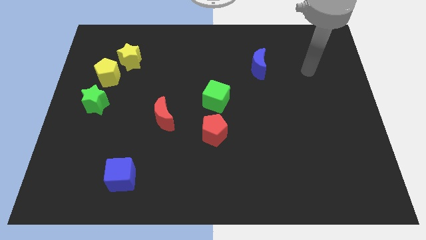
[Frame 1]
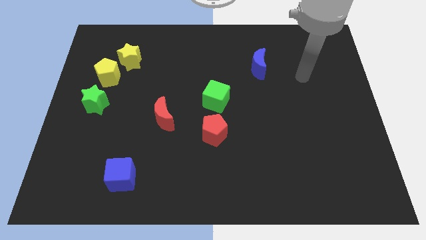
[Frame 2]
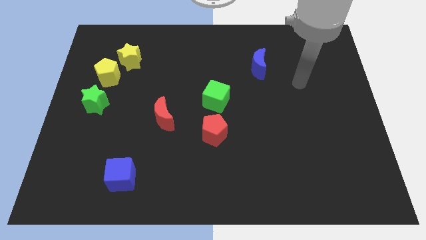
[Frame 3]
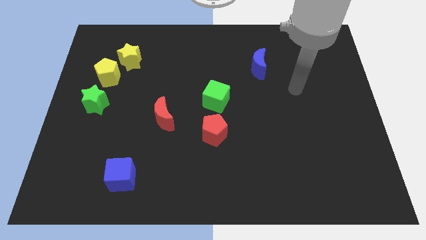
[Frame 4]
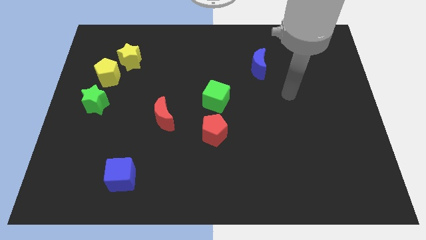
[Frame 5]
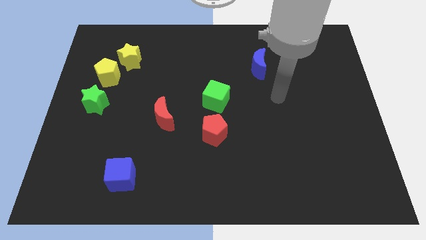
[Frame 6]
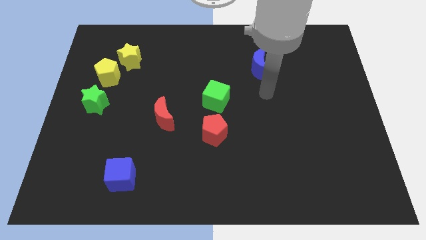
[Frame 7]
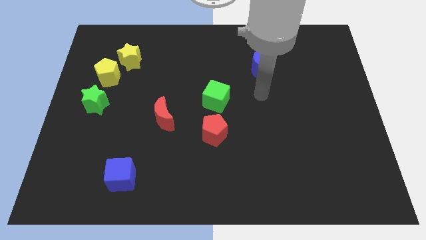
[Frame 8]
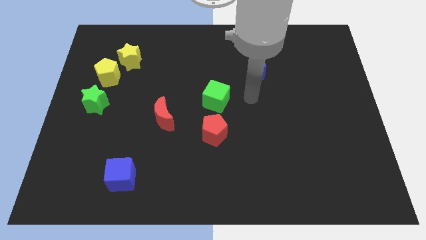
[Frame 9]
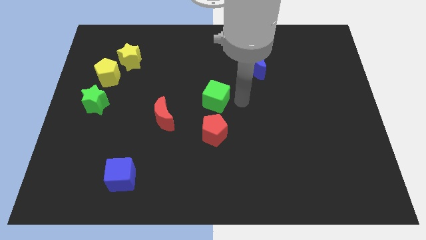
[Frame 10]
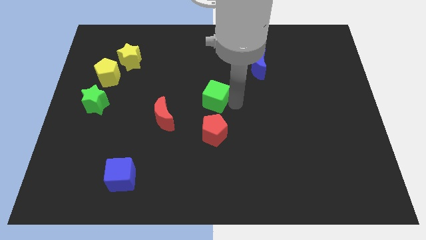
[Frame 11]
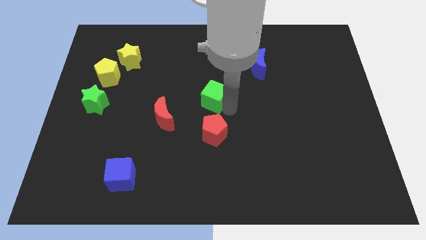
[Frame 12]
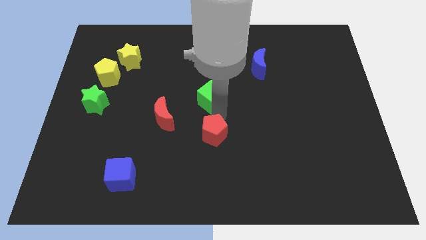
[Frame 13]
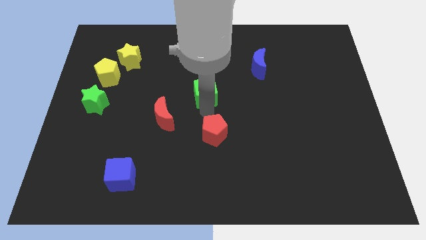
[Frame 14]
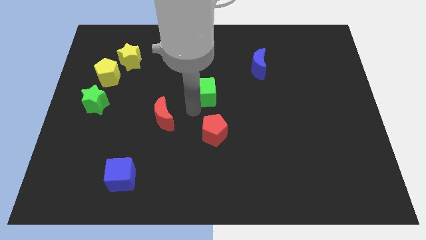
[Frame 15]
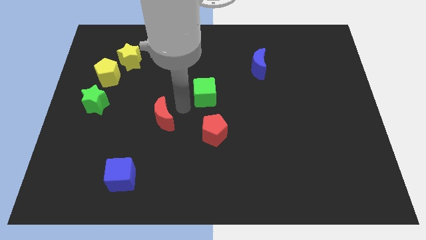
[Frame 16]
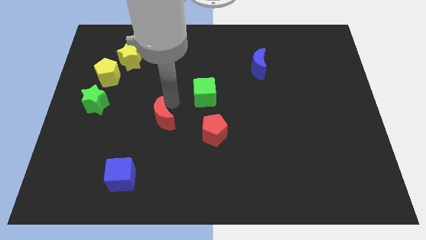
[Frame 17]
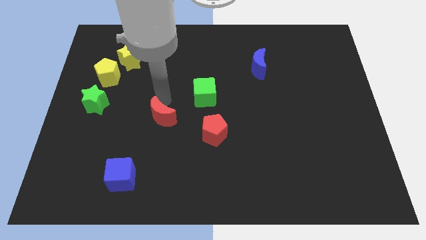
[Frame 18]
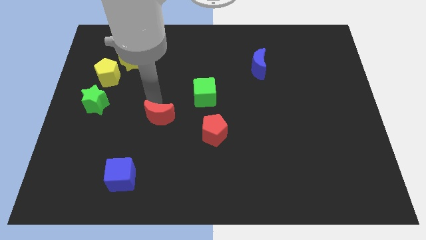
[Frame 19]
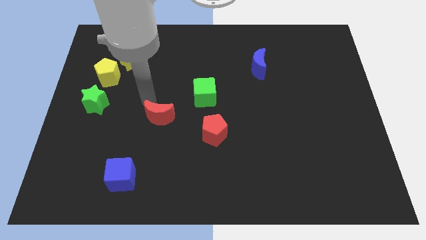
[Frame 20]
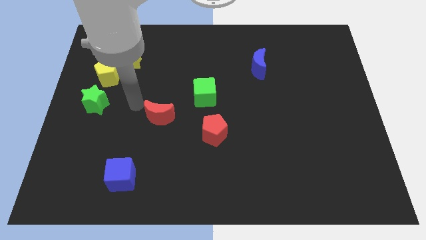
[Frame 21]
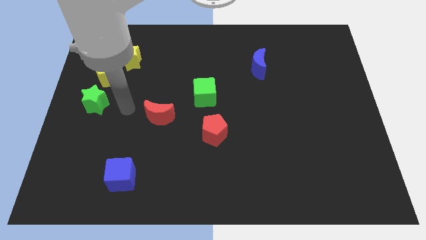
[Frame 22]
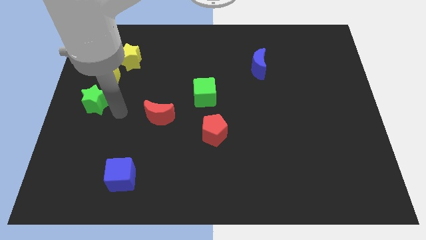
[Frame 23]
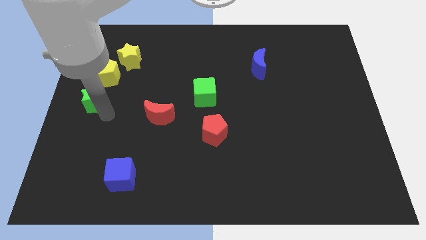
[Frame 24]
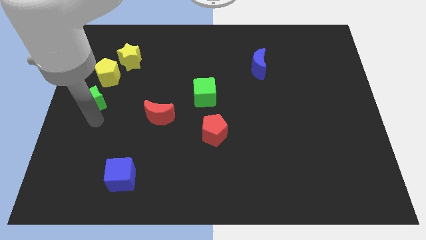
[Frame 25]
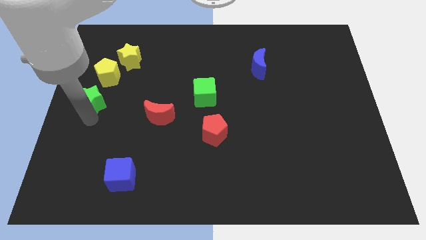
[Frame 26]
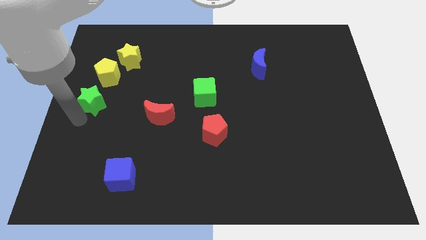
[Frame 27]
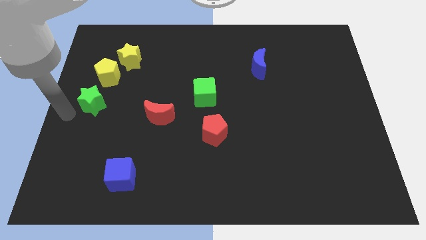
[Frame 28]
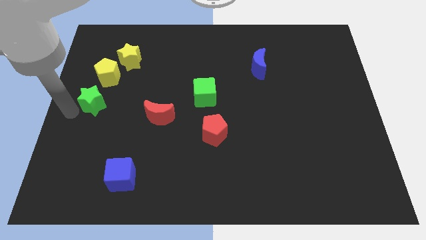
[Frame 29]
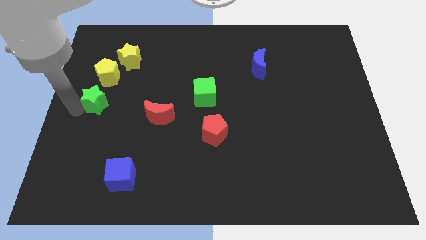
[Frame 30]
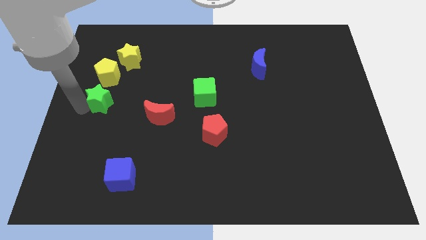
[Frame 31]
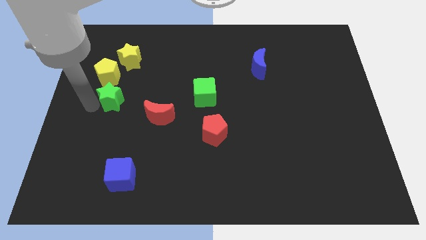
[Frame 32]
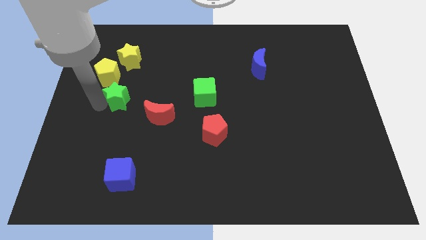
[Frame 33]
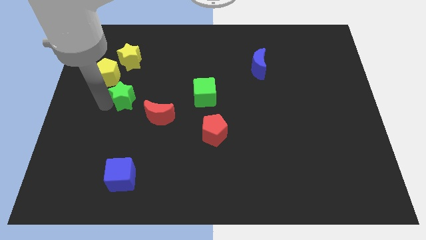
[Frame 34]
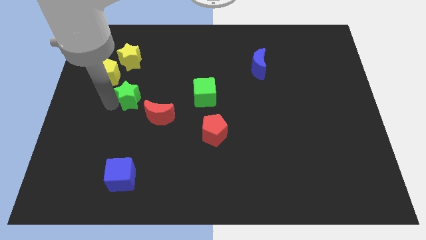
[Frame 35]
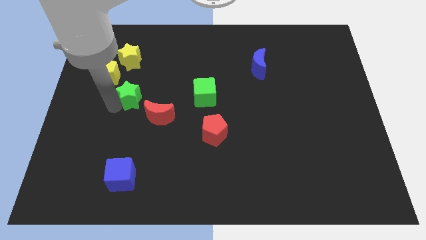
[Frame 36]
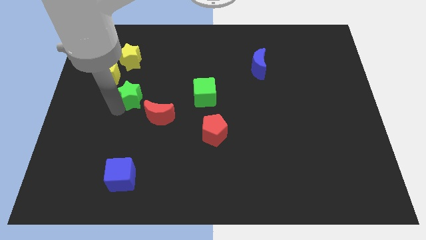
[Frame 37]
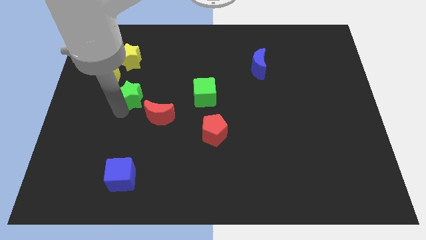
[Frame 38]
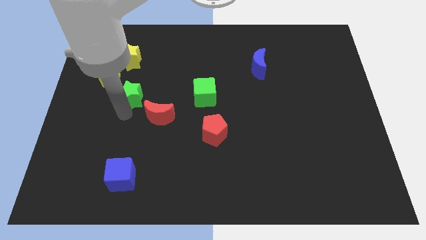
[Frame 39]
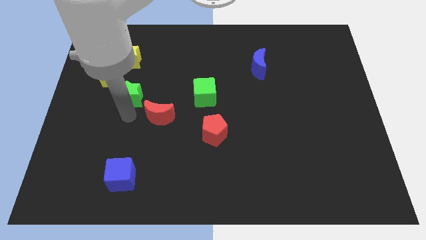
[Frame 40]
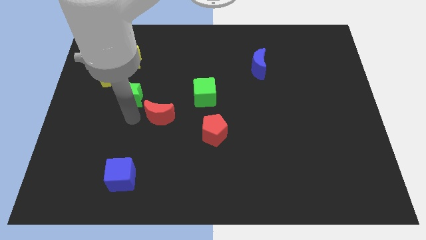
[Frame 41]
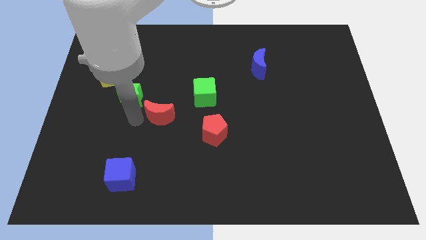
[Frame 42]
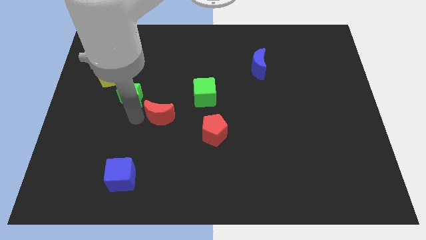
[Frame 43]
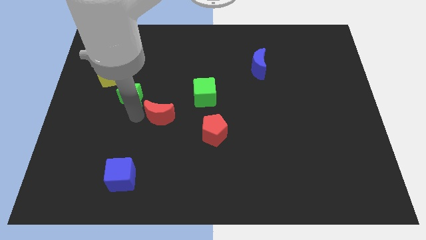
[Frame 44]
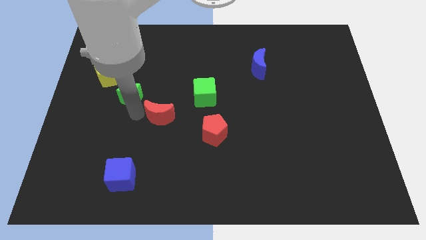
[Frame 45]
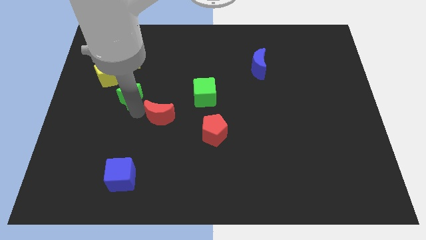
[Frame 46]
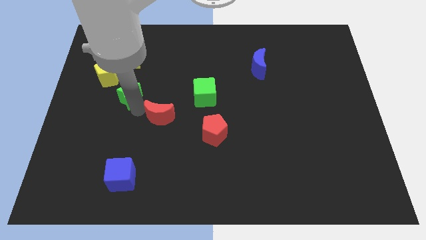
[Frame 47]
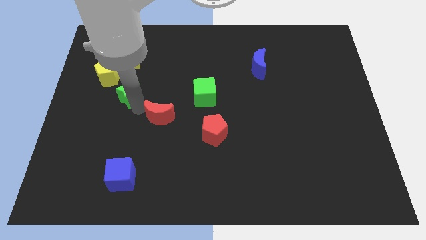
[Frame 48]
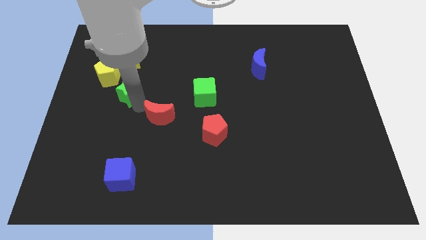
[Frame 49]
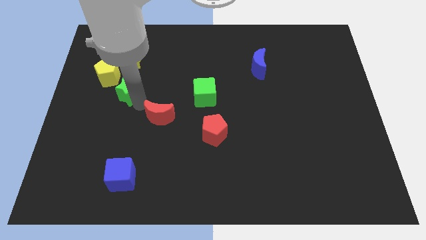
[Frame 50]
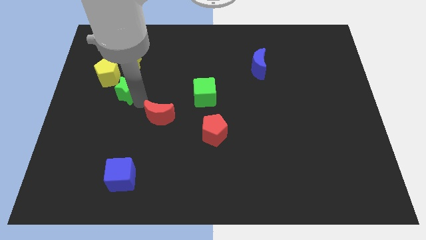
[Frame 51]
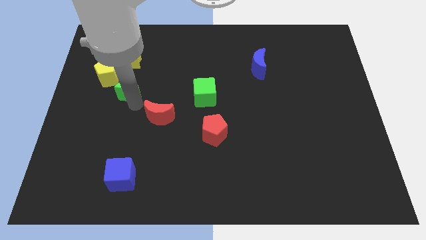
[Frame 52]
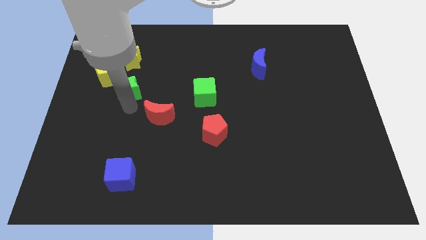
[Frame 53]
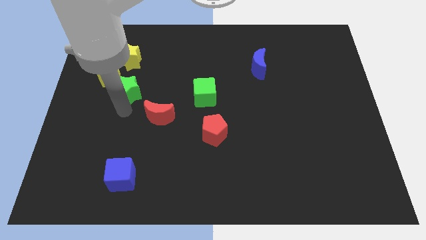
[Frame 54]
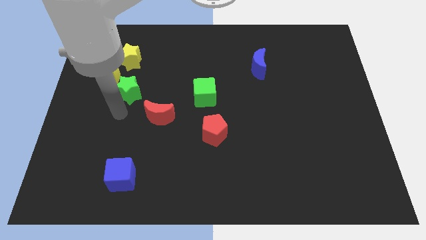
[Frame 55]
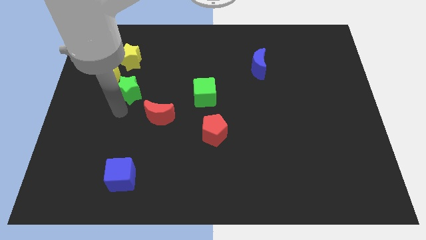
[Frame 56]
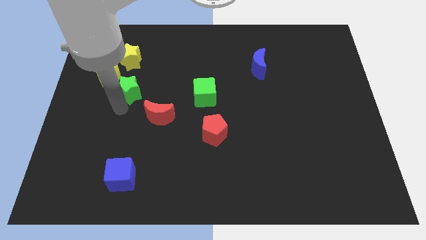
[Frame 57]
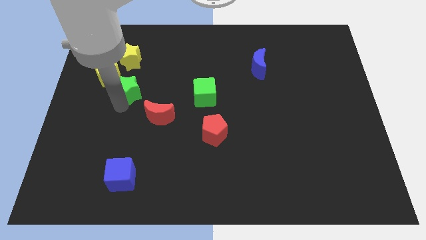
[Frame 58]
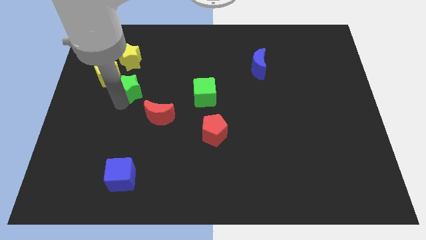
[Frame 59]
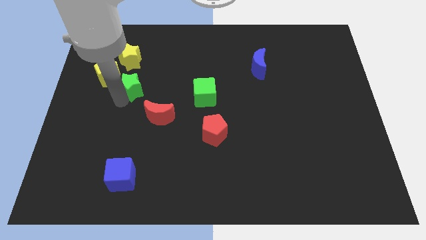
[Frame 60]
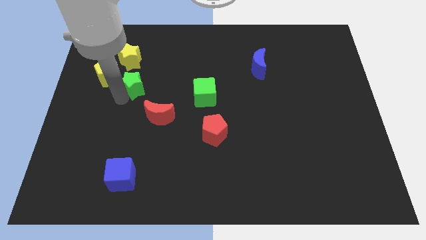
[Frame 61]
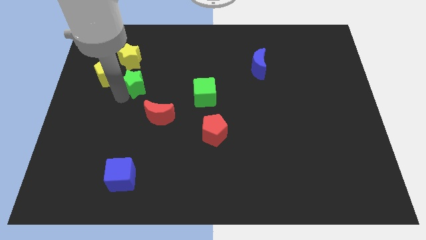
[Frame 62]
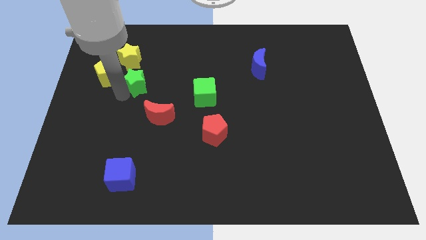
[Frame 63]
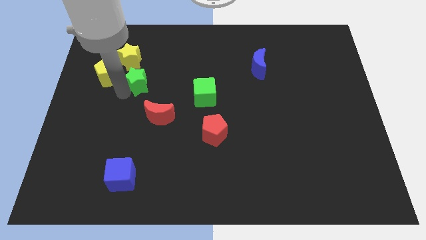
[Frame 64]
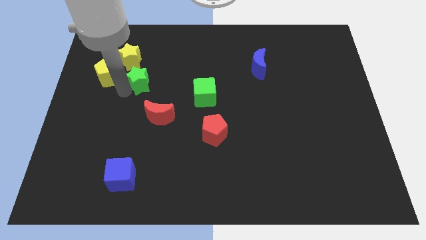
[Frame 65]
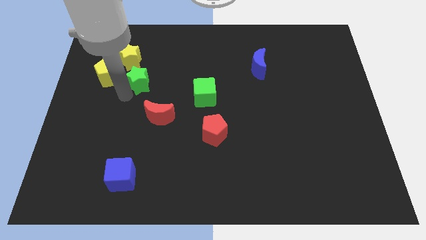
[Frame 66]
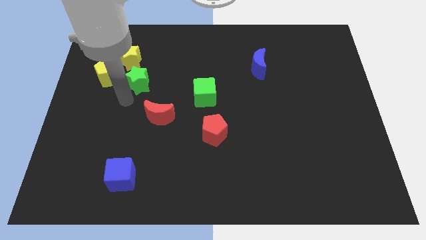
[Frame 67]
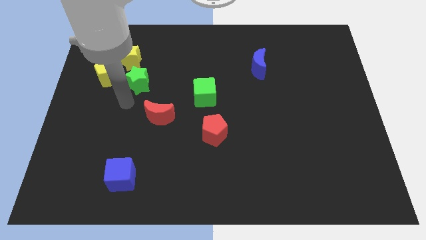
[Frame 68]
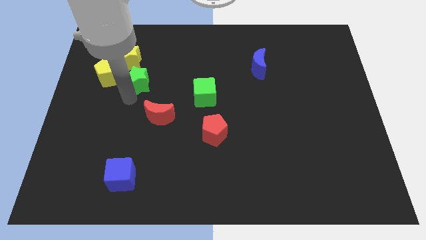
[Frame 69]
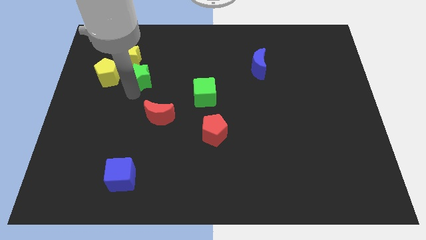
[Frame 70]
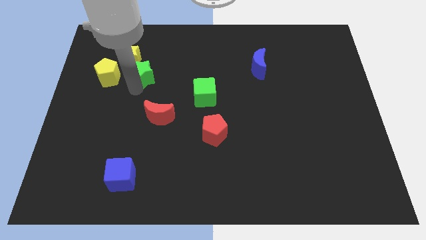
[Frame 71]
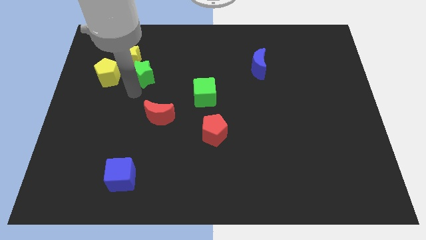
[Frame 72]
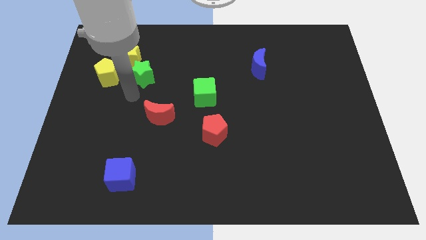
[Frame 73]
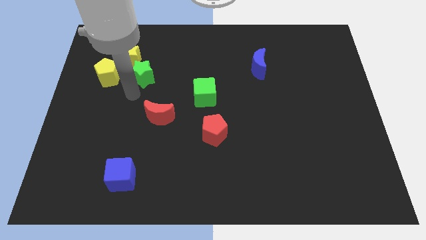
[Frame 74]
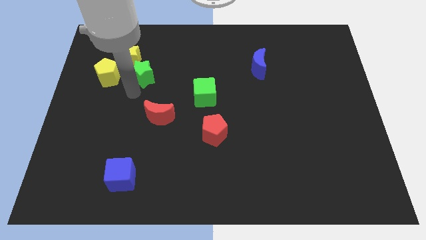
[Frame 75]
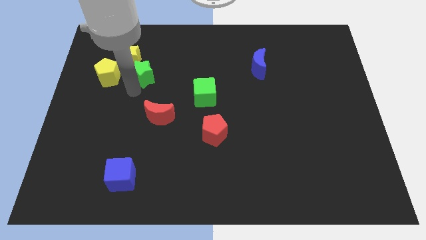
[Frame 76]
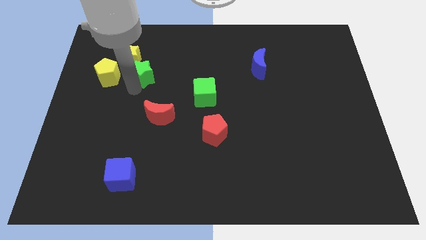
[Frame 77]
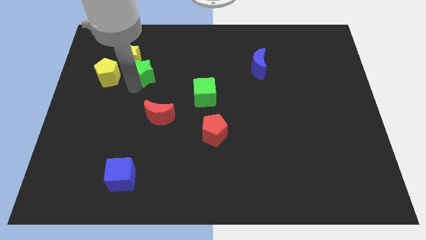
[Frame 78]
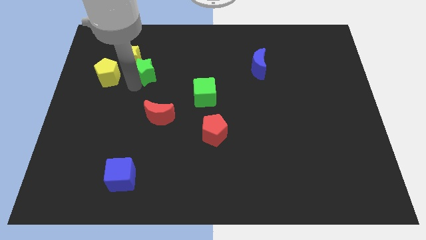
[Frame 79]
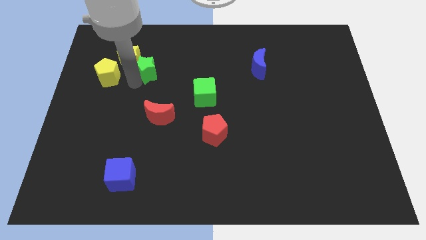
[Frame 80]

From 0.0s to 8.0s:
push the green star to the right of the yellow star
